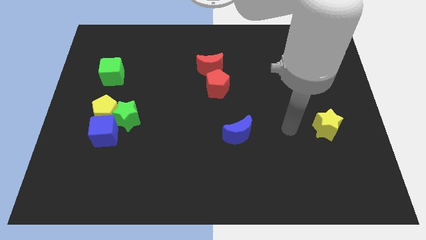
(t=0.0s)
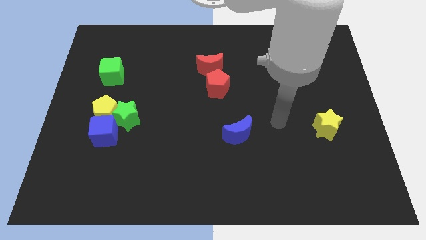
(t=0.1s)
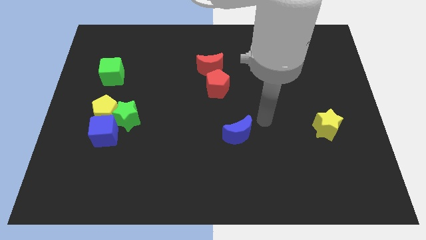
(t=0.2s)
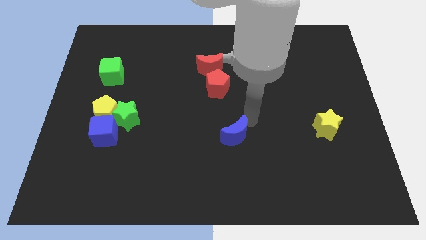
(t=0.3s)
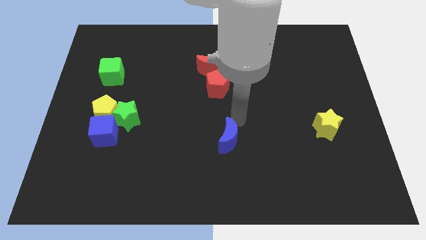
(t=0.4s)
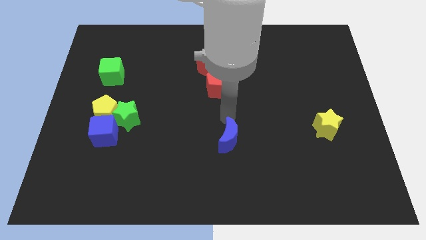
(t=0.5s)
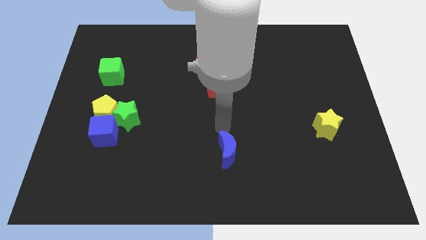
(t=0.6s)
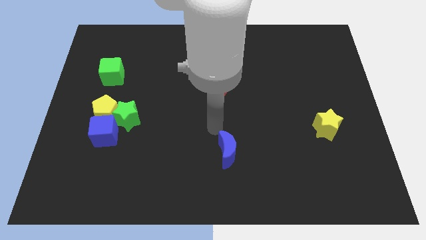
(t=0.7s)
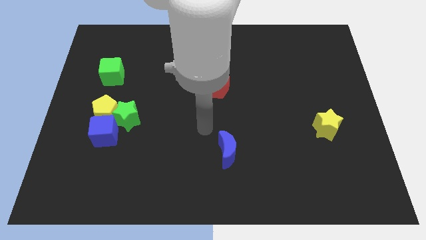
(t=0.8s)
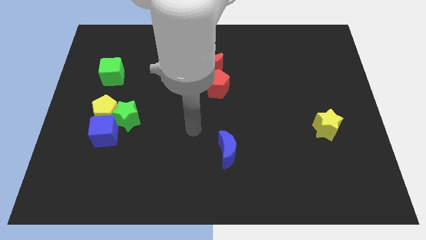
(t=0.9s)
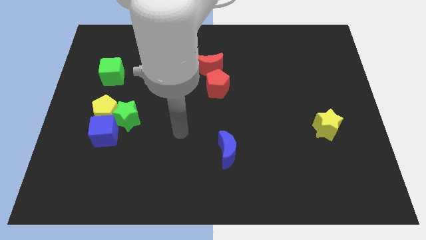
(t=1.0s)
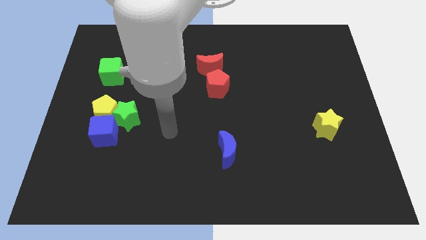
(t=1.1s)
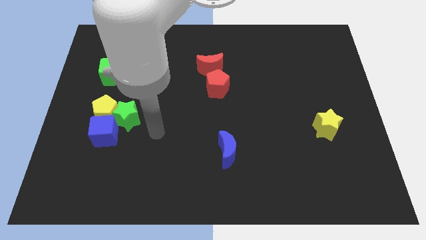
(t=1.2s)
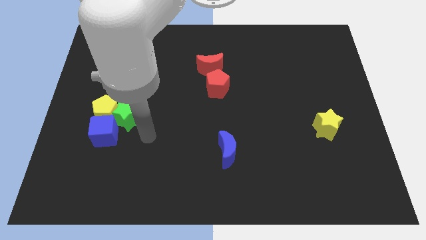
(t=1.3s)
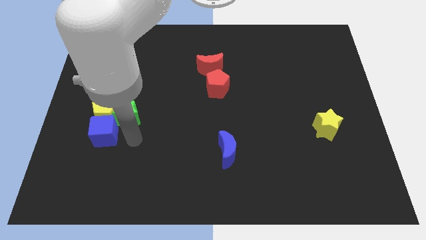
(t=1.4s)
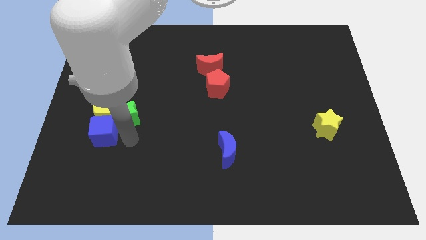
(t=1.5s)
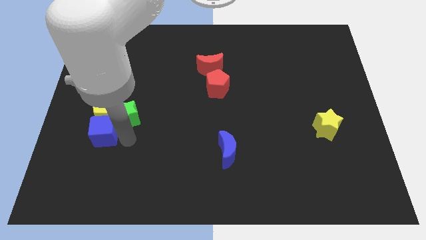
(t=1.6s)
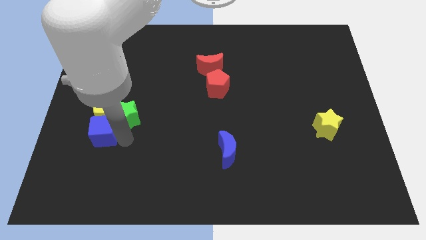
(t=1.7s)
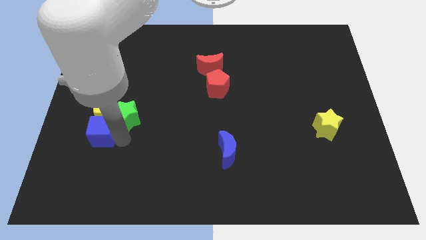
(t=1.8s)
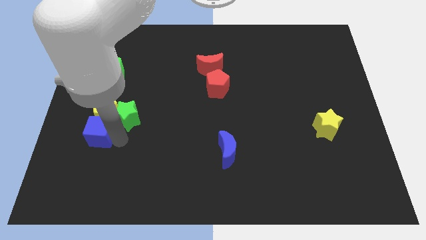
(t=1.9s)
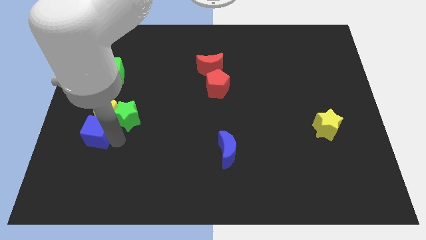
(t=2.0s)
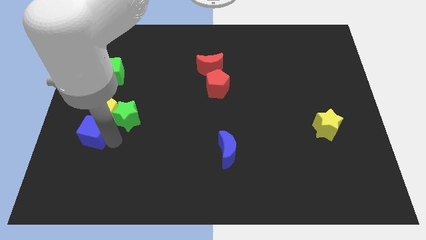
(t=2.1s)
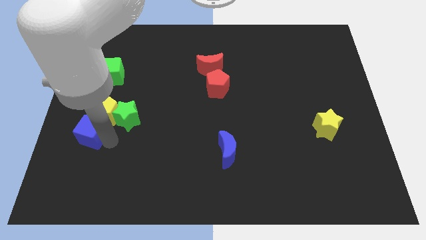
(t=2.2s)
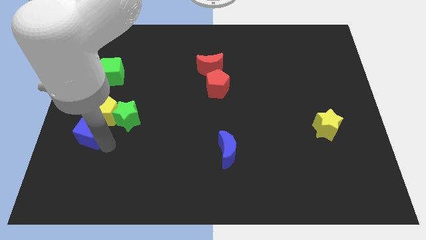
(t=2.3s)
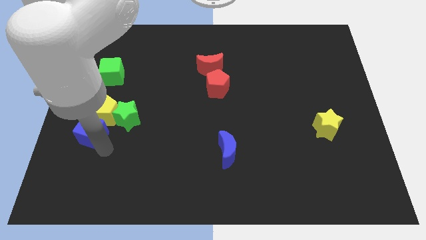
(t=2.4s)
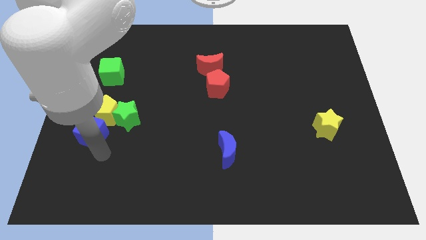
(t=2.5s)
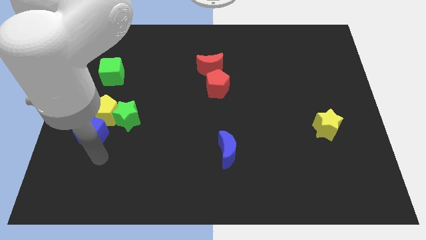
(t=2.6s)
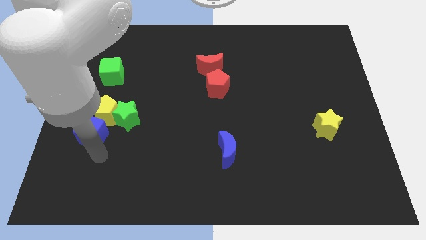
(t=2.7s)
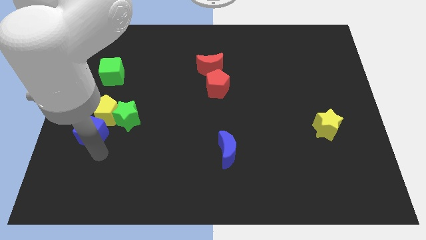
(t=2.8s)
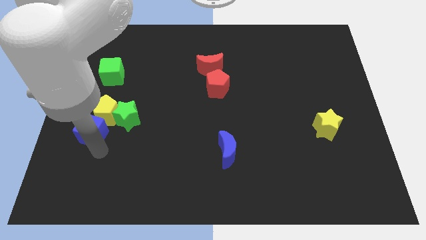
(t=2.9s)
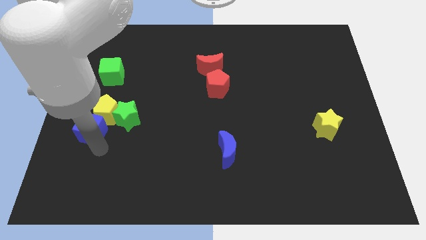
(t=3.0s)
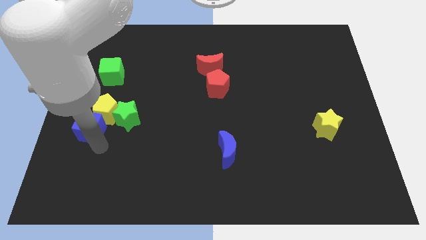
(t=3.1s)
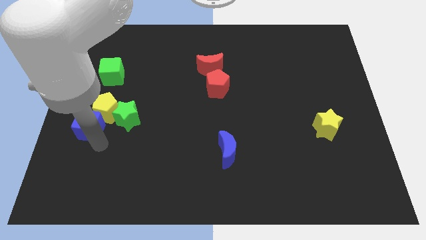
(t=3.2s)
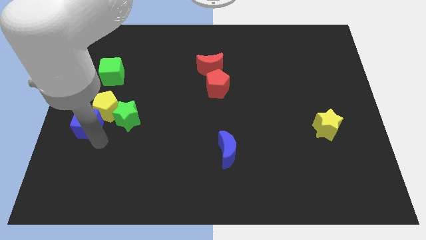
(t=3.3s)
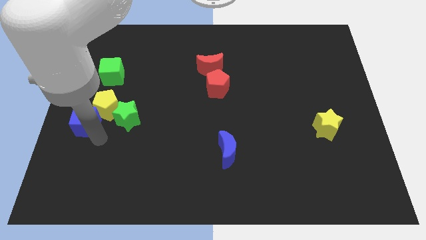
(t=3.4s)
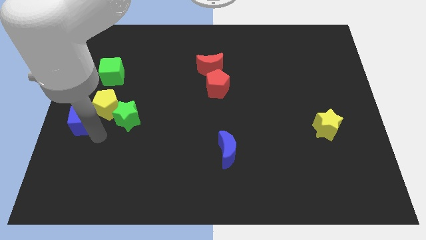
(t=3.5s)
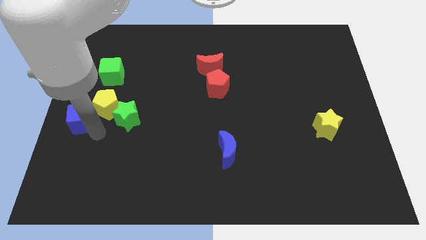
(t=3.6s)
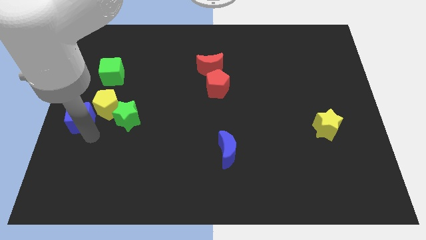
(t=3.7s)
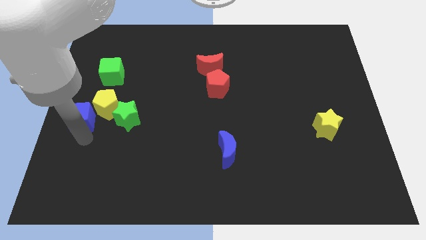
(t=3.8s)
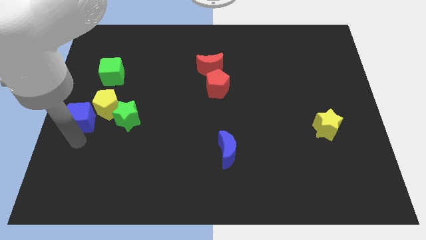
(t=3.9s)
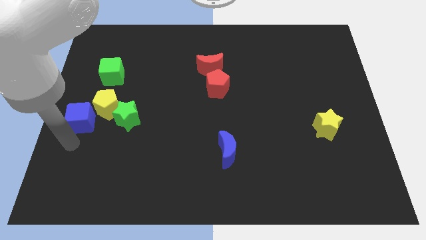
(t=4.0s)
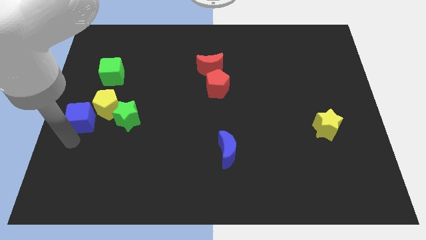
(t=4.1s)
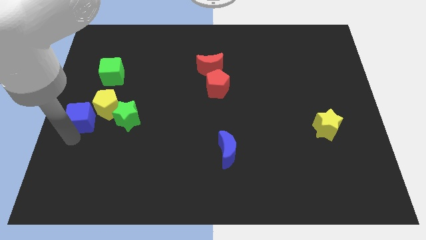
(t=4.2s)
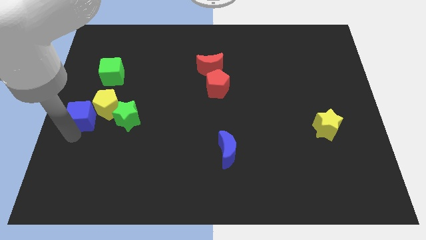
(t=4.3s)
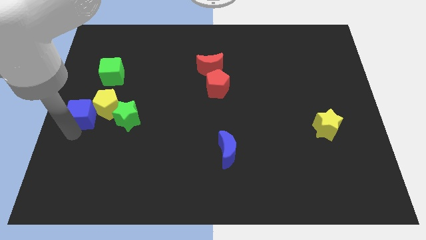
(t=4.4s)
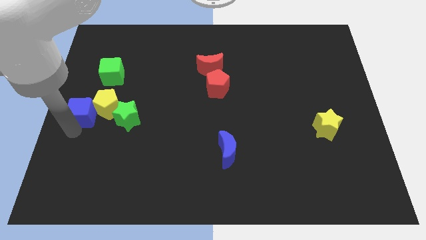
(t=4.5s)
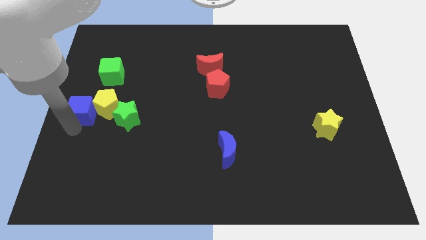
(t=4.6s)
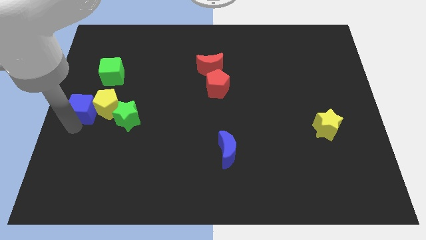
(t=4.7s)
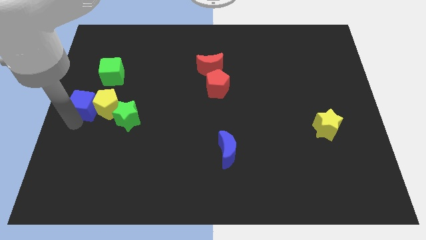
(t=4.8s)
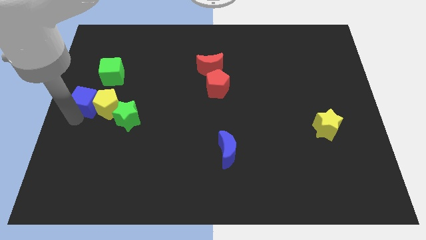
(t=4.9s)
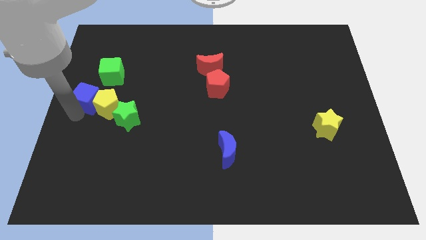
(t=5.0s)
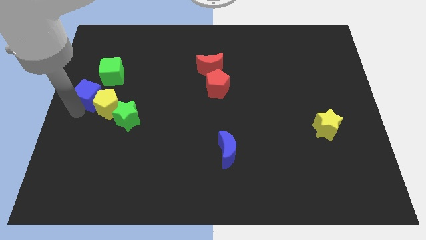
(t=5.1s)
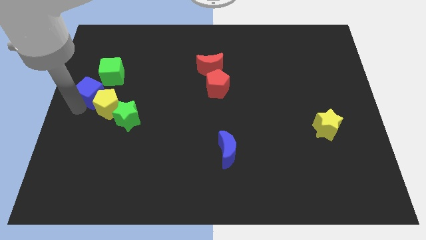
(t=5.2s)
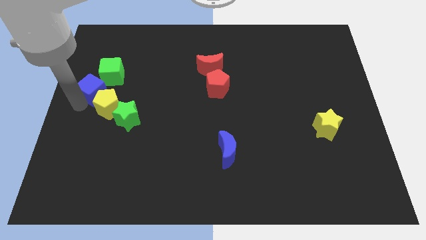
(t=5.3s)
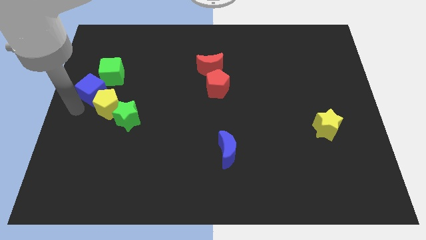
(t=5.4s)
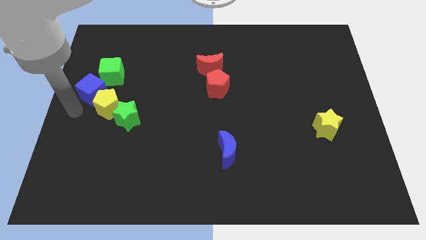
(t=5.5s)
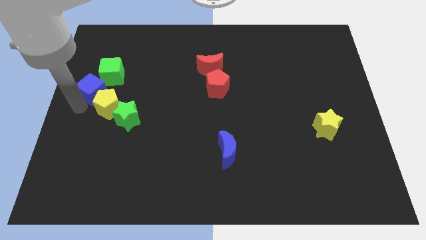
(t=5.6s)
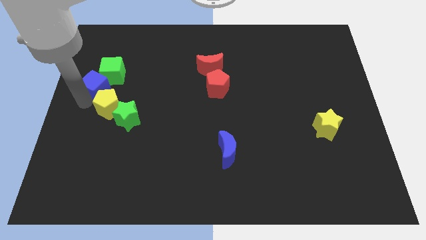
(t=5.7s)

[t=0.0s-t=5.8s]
move the blue cube to the green cube

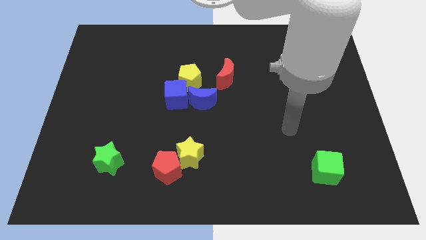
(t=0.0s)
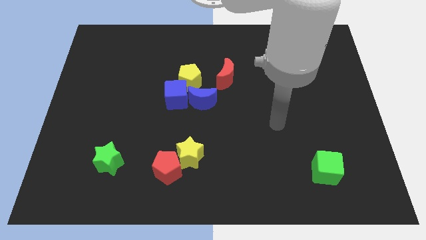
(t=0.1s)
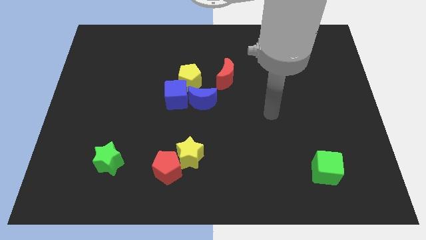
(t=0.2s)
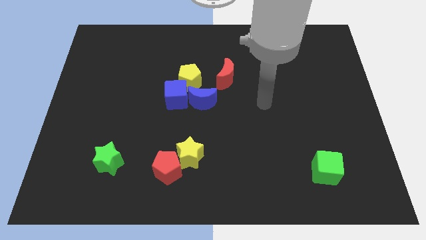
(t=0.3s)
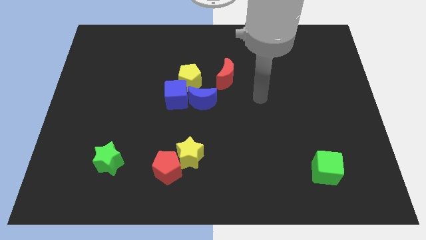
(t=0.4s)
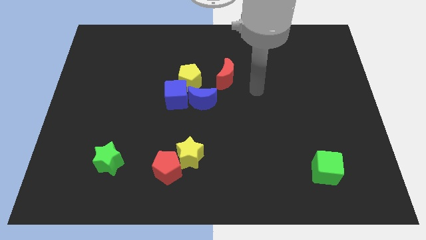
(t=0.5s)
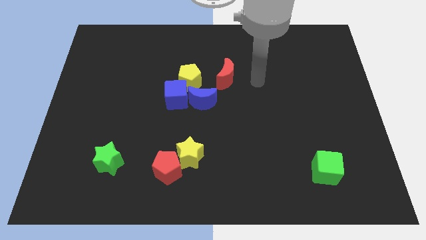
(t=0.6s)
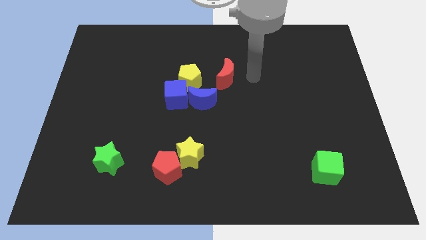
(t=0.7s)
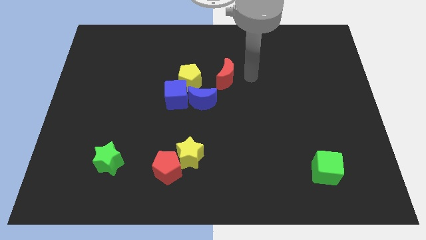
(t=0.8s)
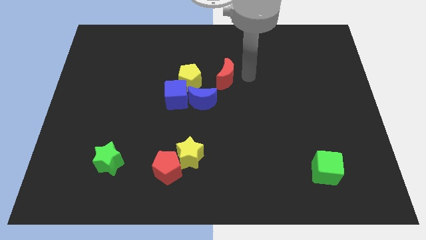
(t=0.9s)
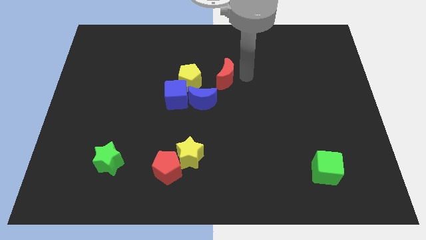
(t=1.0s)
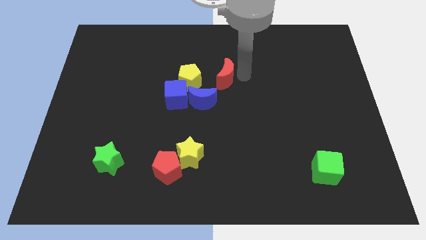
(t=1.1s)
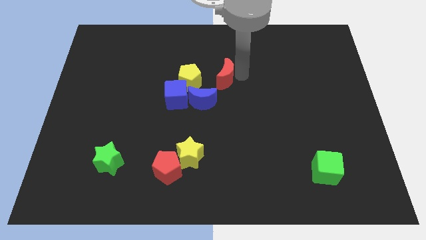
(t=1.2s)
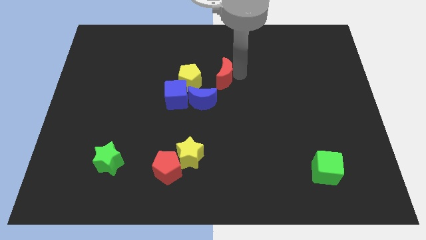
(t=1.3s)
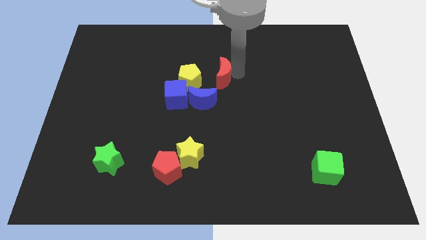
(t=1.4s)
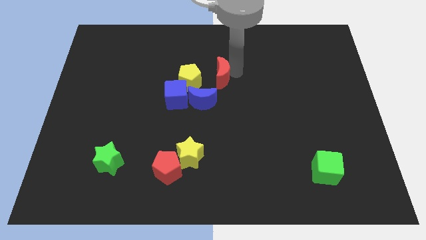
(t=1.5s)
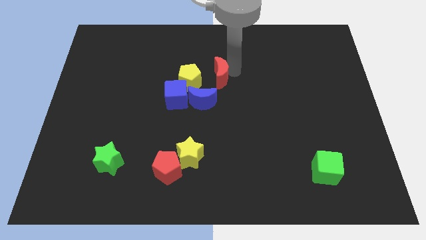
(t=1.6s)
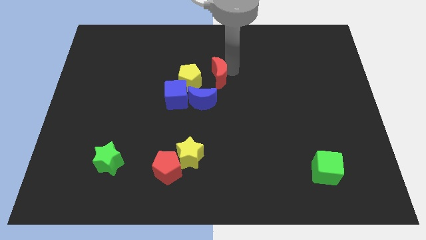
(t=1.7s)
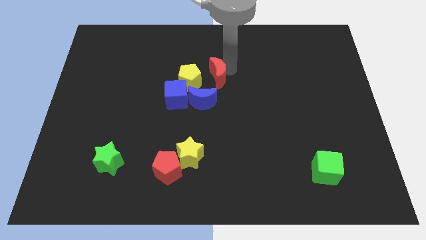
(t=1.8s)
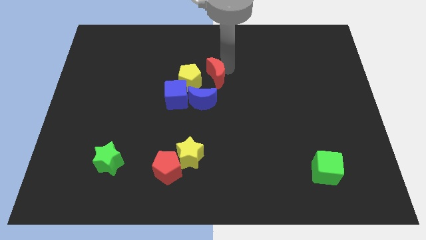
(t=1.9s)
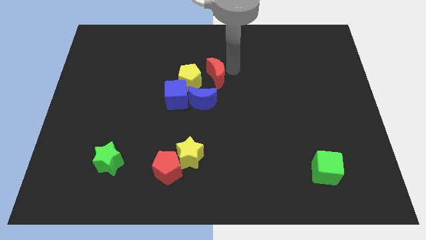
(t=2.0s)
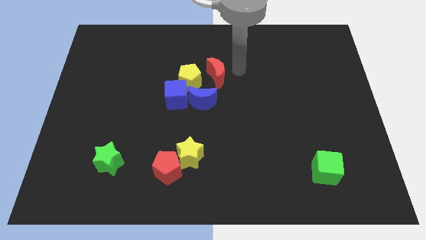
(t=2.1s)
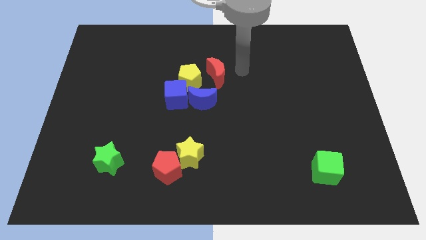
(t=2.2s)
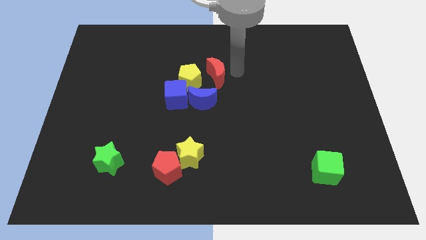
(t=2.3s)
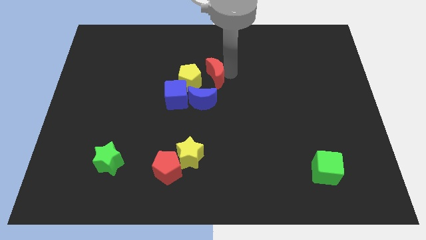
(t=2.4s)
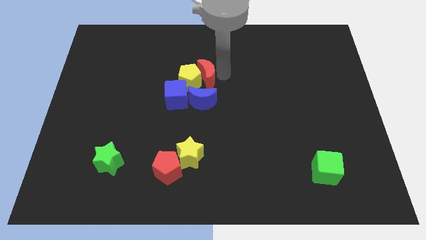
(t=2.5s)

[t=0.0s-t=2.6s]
slide the red moon towards the yellow pentagon
